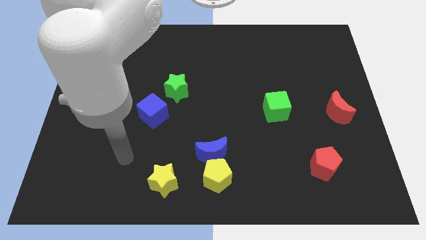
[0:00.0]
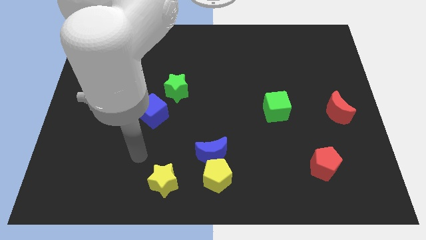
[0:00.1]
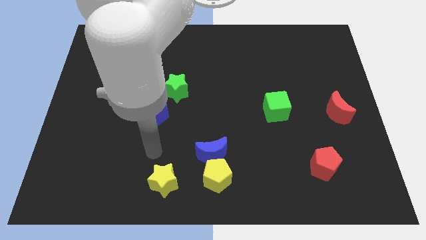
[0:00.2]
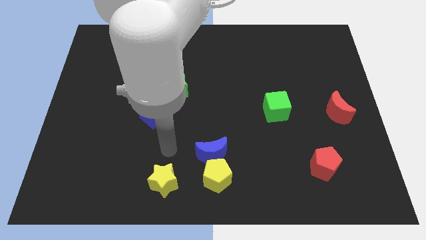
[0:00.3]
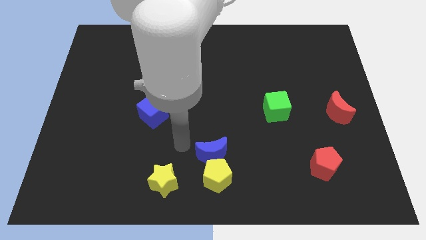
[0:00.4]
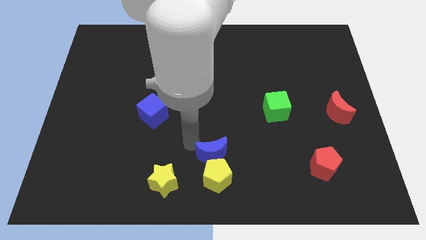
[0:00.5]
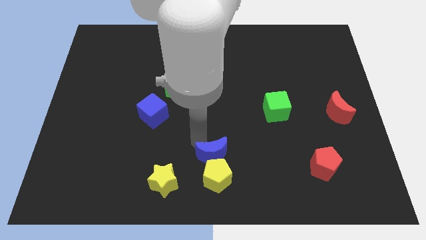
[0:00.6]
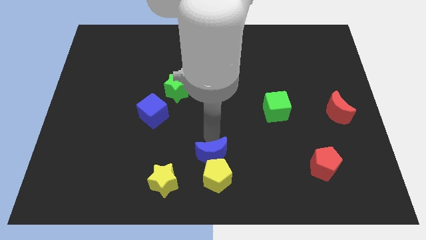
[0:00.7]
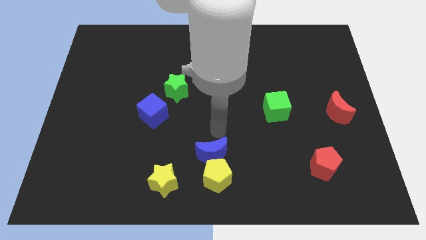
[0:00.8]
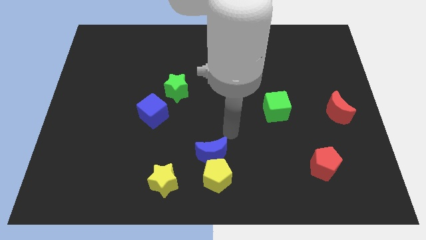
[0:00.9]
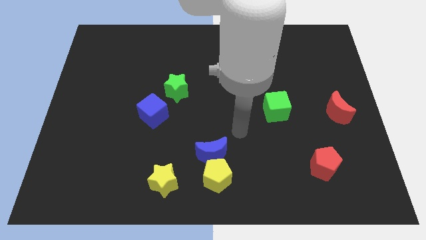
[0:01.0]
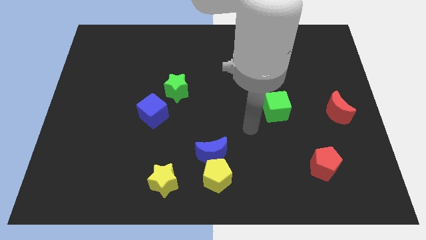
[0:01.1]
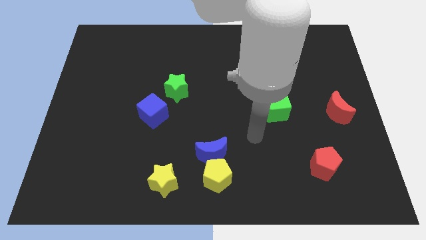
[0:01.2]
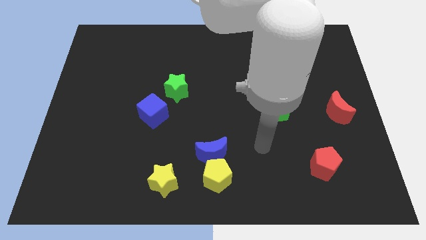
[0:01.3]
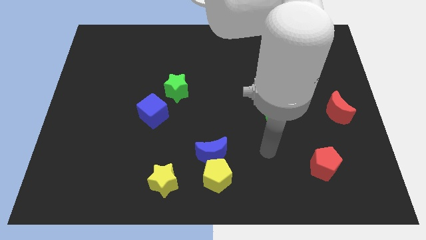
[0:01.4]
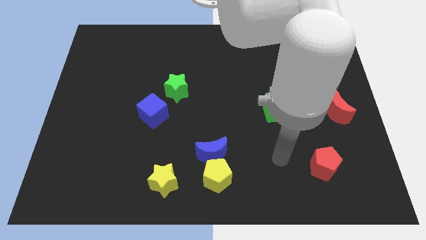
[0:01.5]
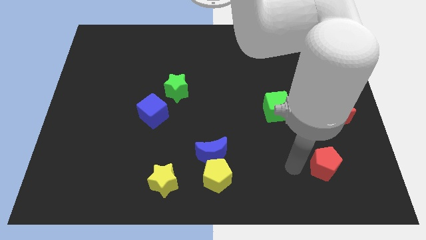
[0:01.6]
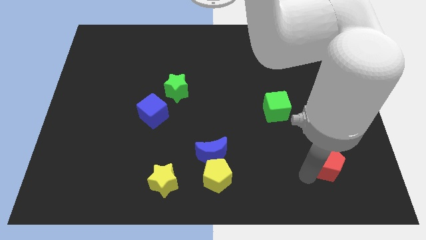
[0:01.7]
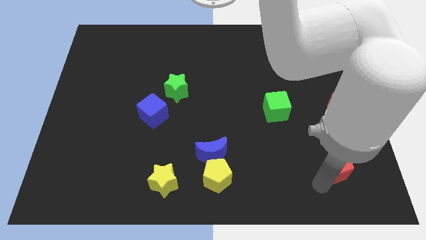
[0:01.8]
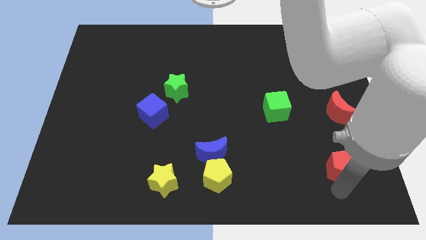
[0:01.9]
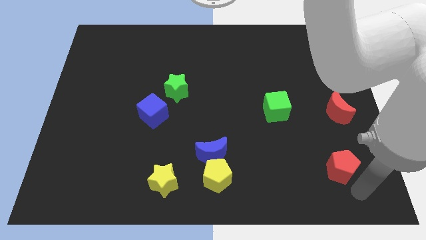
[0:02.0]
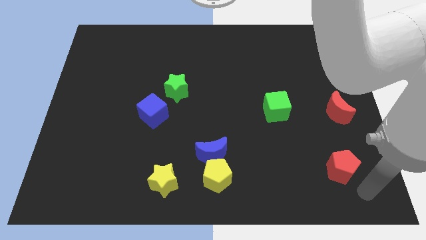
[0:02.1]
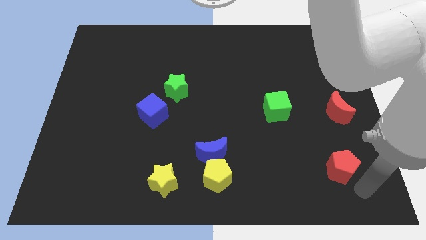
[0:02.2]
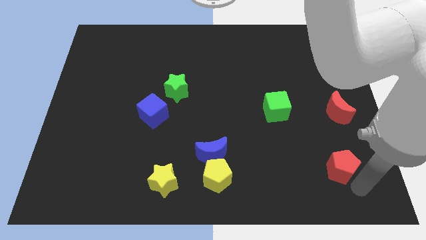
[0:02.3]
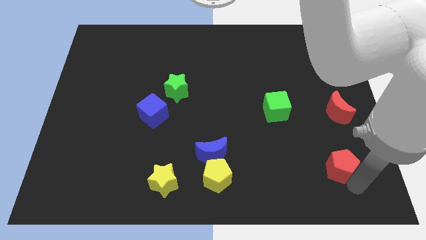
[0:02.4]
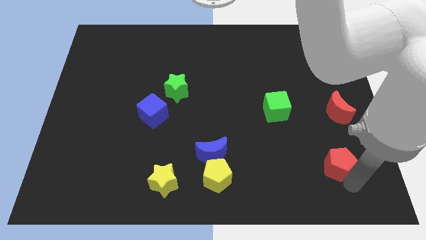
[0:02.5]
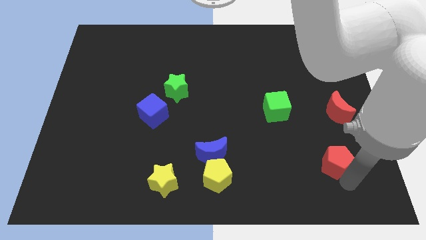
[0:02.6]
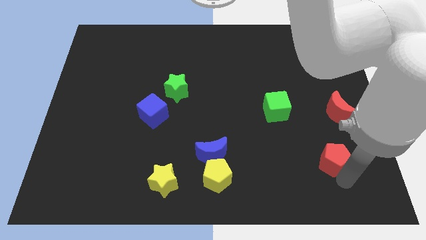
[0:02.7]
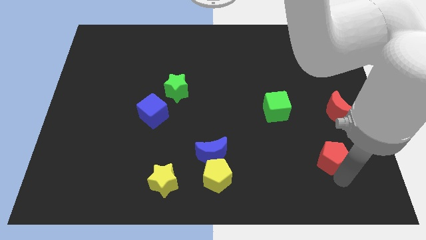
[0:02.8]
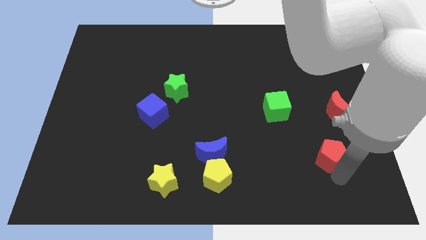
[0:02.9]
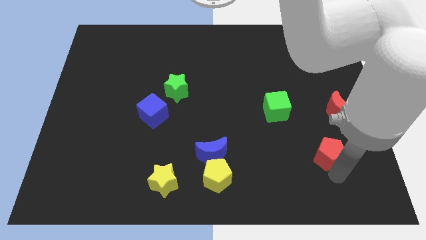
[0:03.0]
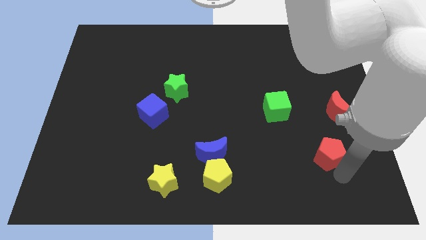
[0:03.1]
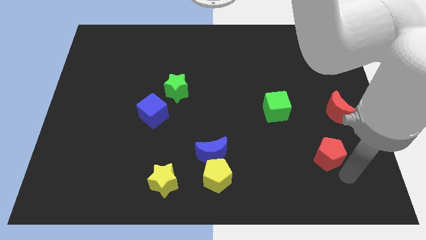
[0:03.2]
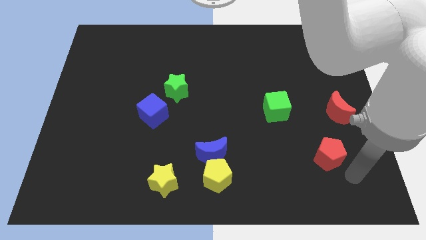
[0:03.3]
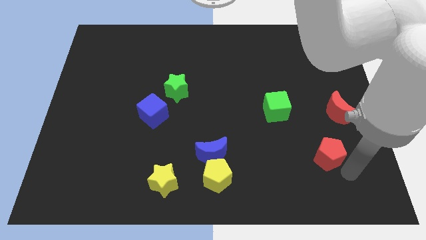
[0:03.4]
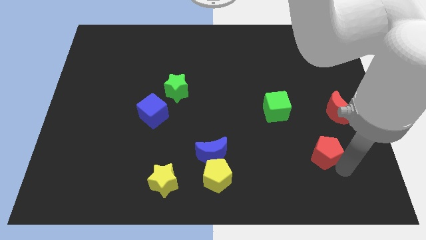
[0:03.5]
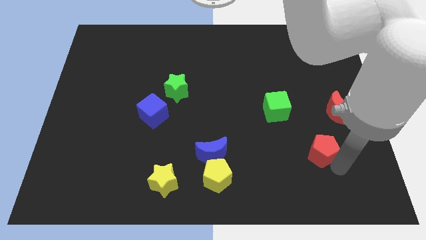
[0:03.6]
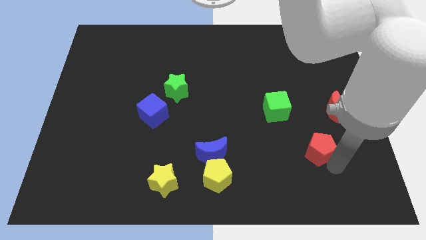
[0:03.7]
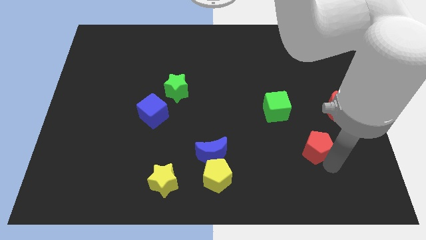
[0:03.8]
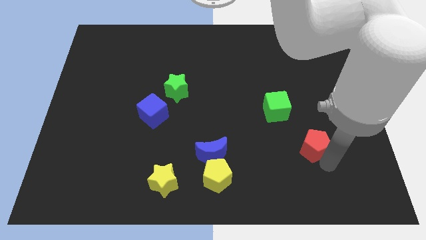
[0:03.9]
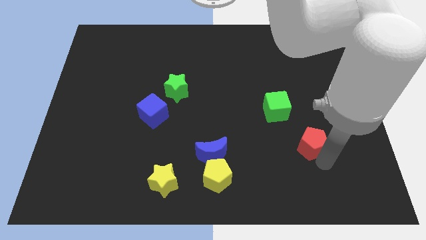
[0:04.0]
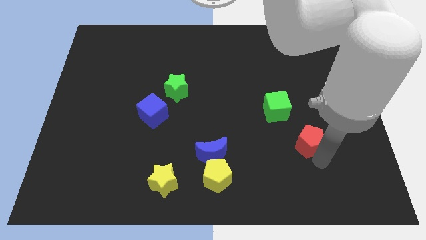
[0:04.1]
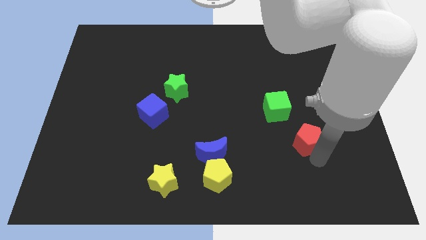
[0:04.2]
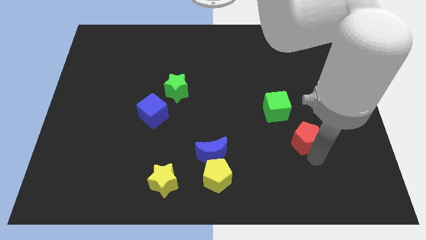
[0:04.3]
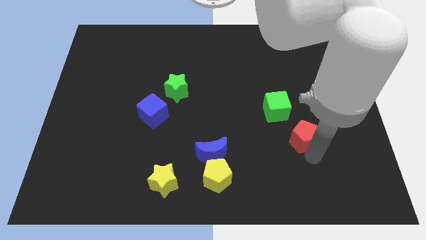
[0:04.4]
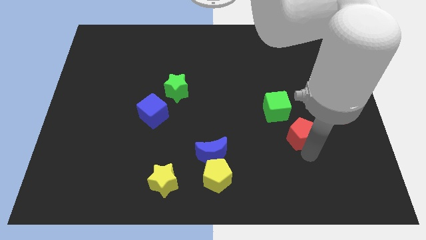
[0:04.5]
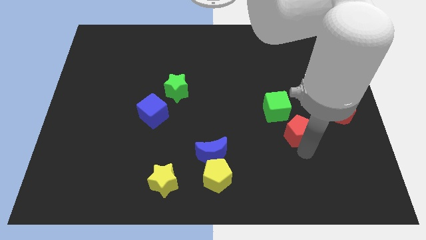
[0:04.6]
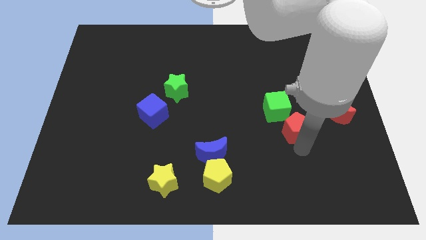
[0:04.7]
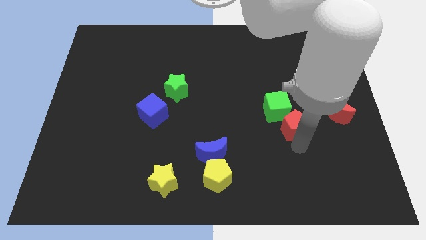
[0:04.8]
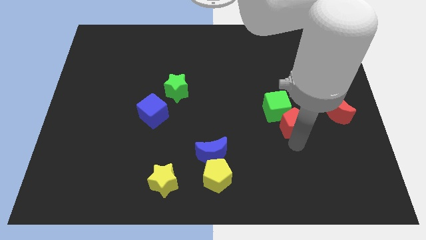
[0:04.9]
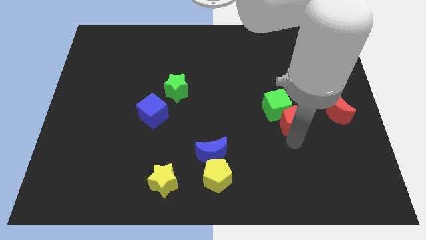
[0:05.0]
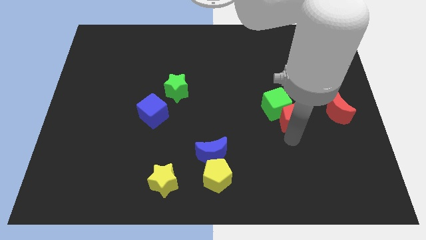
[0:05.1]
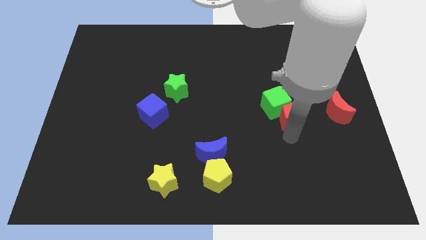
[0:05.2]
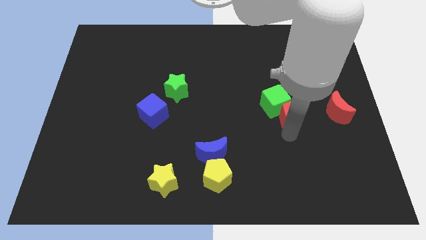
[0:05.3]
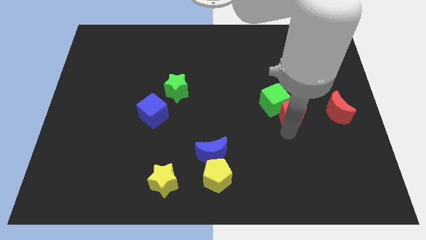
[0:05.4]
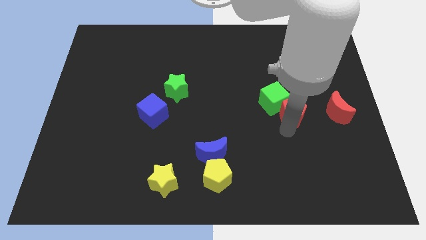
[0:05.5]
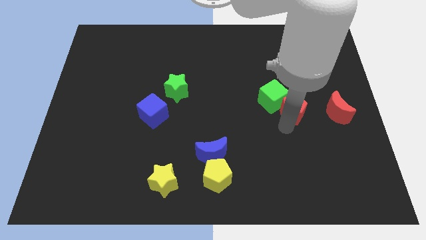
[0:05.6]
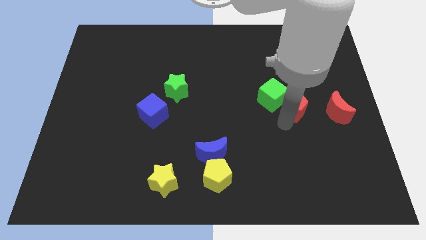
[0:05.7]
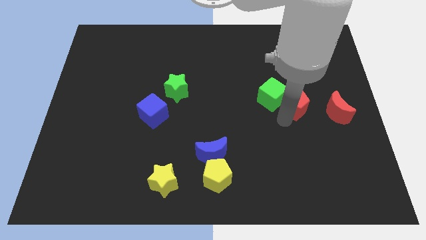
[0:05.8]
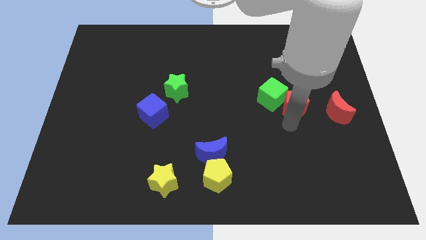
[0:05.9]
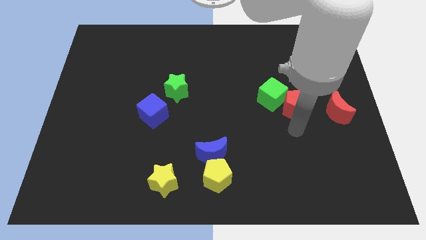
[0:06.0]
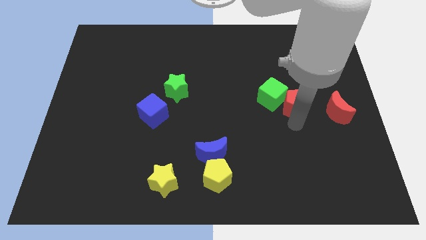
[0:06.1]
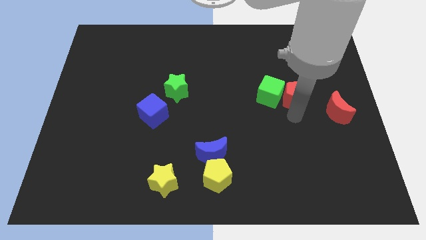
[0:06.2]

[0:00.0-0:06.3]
put the red pentagon to the top right side of the green cube

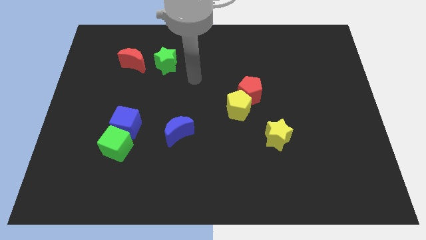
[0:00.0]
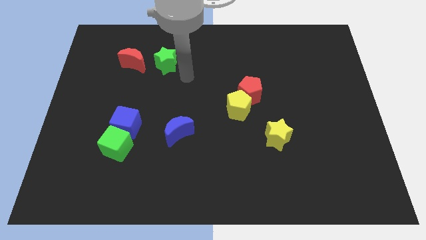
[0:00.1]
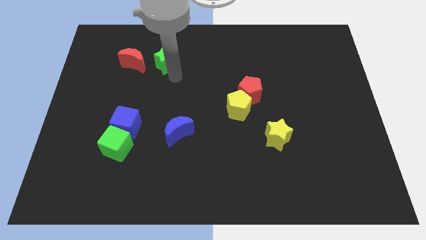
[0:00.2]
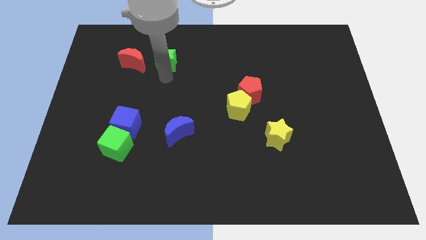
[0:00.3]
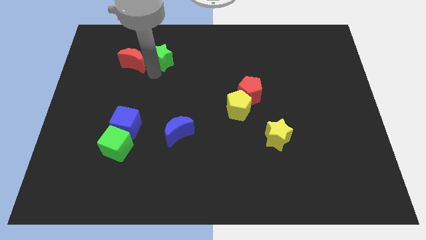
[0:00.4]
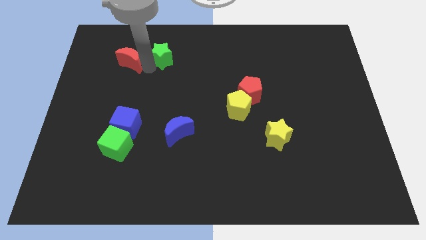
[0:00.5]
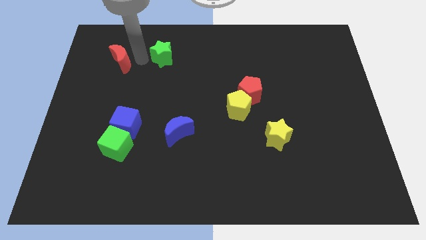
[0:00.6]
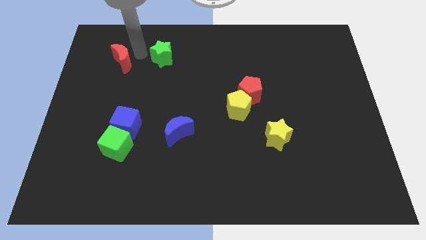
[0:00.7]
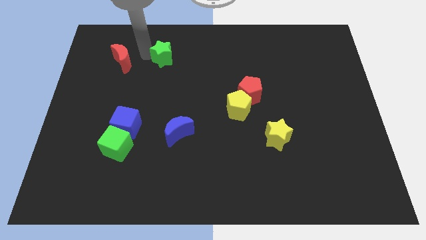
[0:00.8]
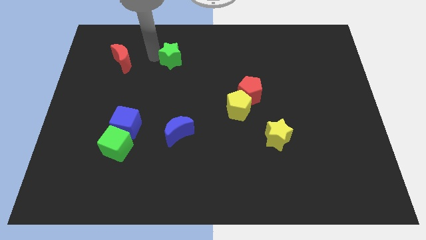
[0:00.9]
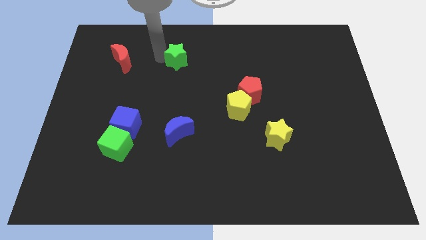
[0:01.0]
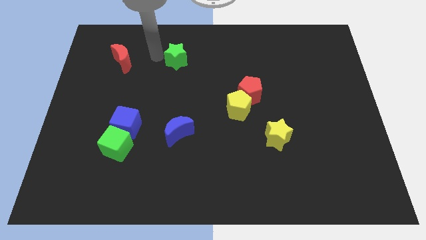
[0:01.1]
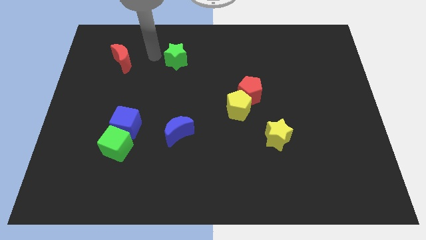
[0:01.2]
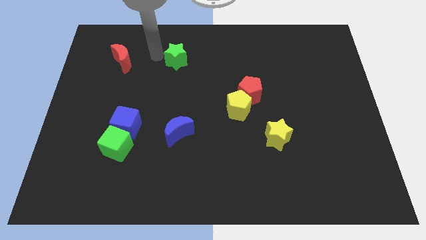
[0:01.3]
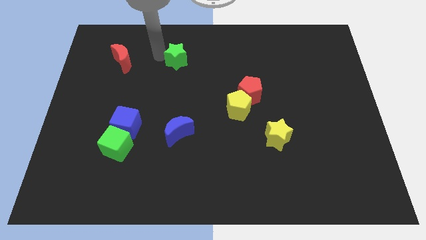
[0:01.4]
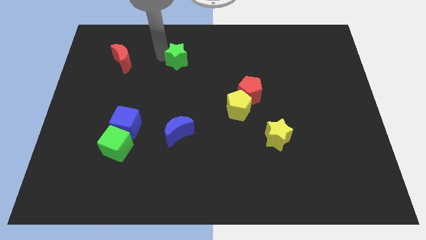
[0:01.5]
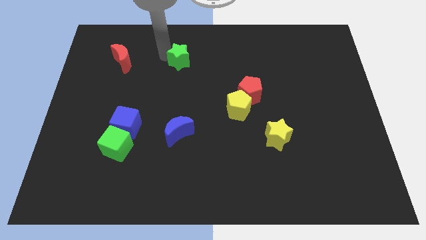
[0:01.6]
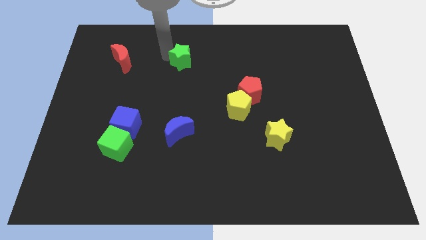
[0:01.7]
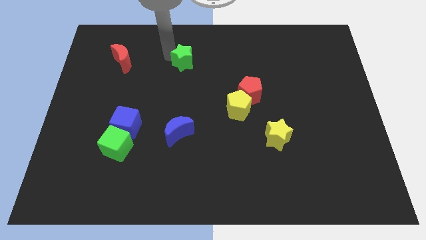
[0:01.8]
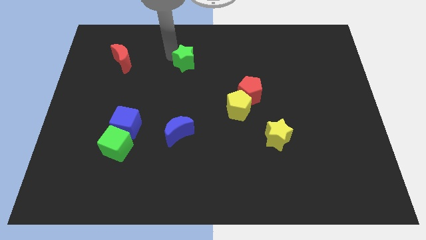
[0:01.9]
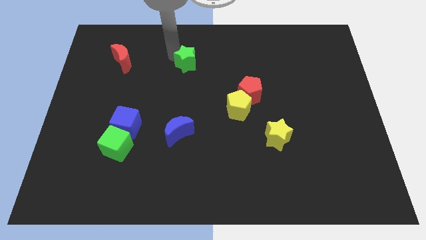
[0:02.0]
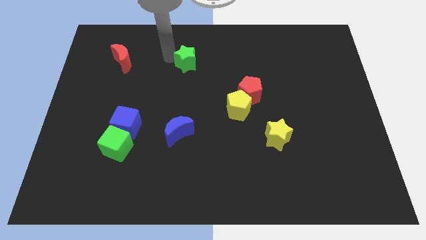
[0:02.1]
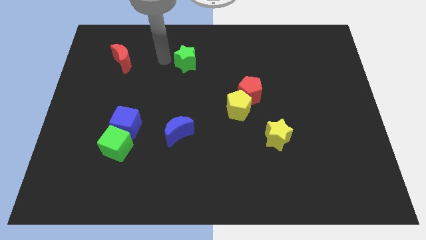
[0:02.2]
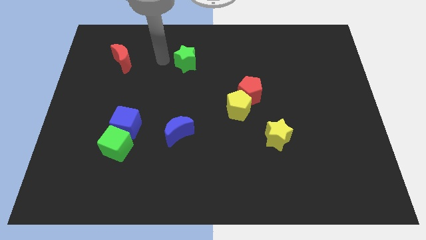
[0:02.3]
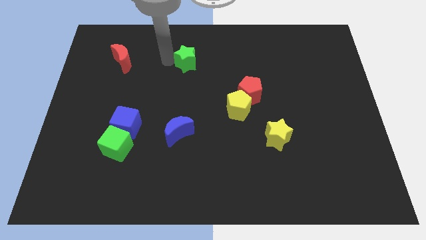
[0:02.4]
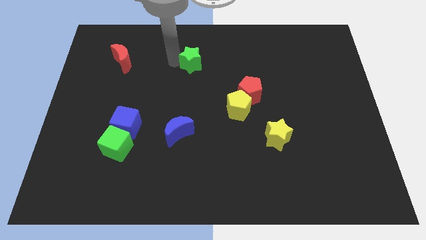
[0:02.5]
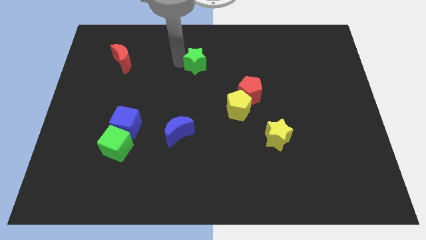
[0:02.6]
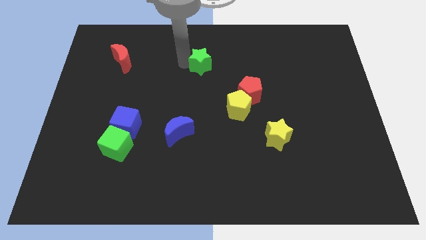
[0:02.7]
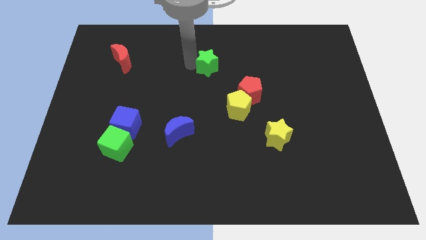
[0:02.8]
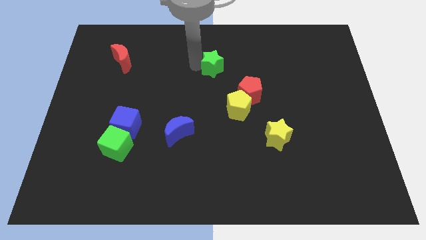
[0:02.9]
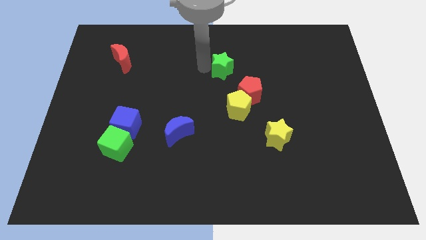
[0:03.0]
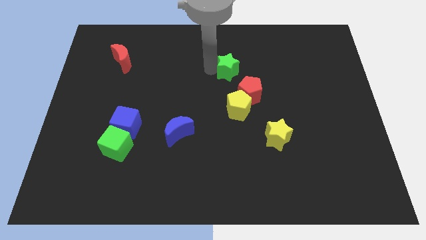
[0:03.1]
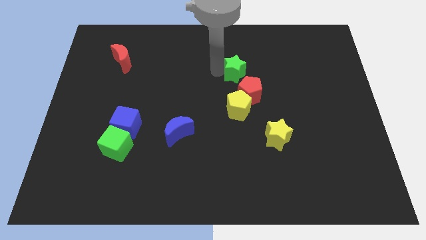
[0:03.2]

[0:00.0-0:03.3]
put the green star to the top of the red pentagon
